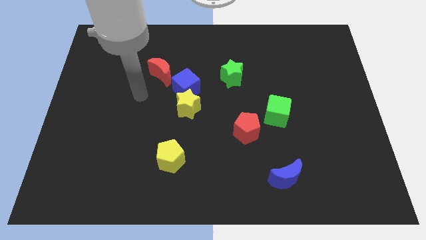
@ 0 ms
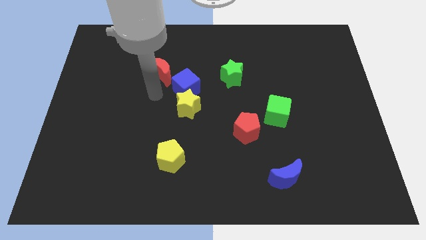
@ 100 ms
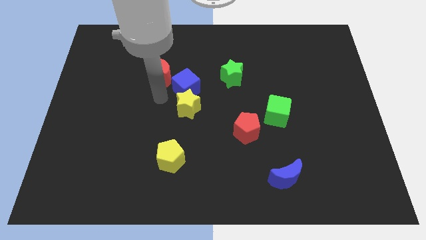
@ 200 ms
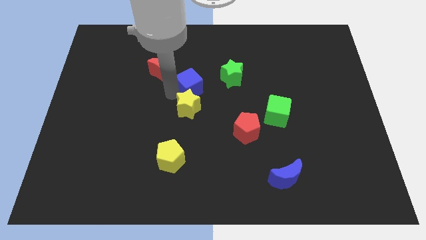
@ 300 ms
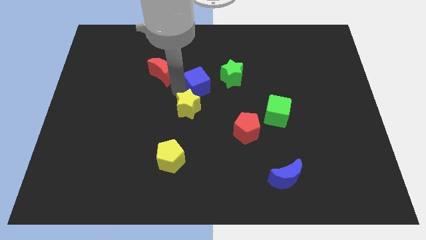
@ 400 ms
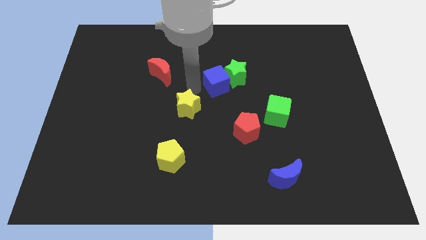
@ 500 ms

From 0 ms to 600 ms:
pull the yellow star apart from the blue cube

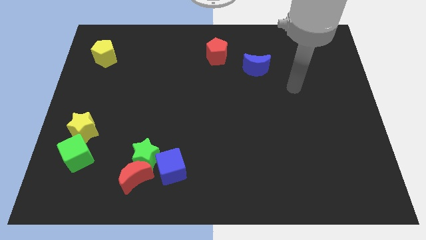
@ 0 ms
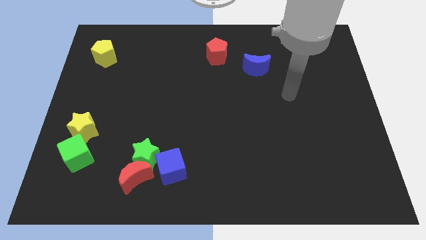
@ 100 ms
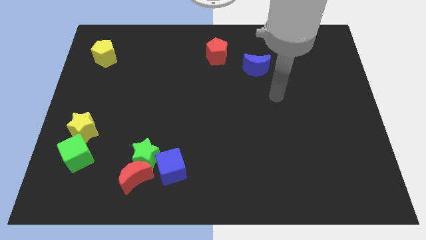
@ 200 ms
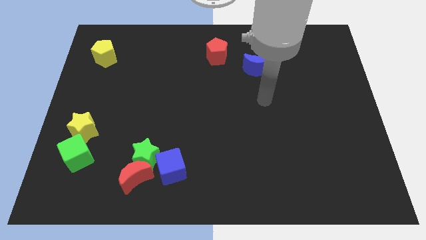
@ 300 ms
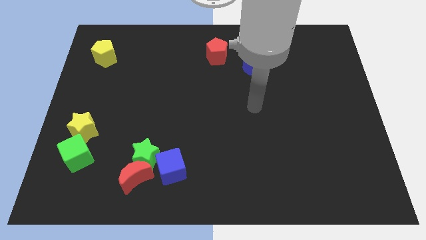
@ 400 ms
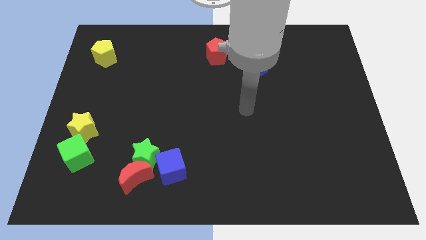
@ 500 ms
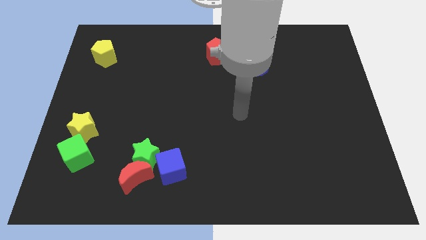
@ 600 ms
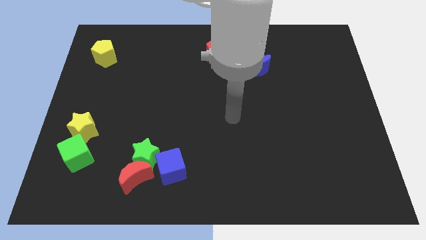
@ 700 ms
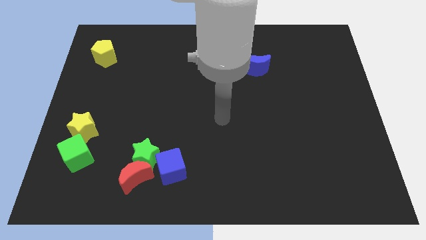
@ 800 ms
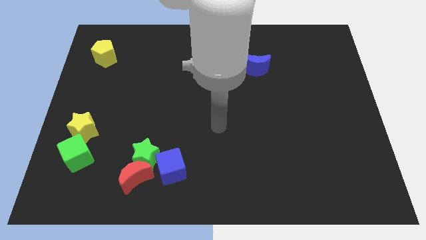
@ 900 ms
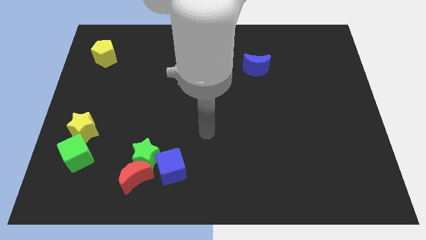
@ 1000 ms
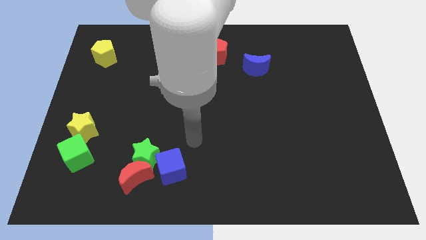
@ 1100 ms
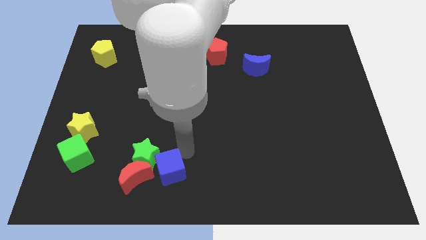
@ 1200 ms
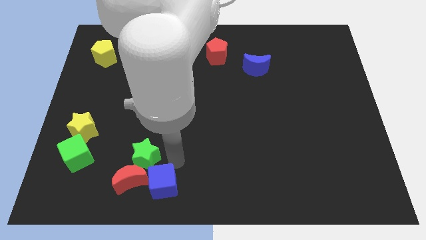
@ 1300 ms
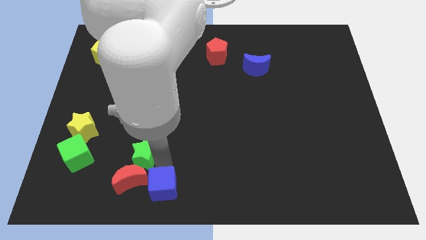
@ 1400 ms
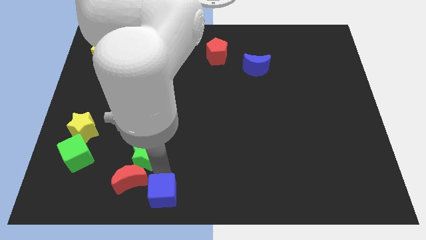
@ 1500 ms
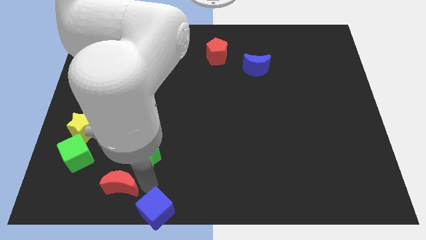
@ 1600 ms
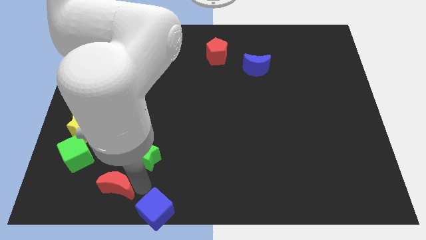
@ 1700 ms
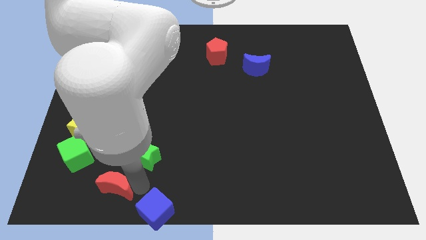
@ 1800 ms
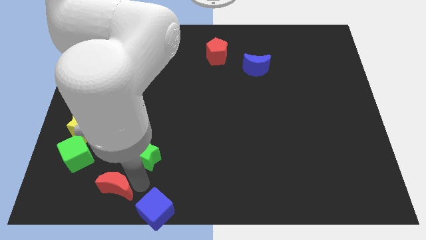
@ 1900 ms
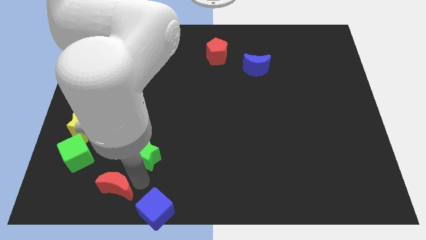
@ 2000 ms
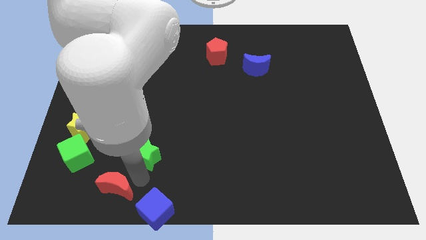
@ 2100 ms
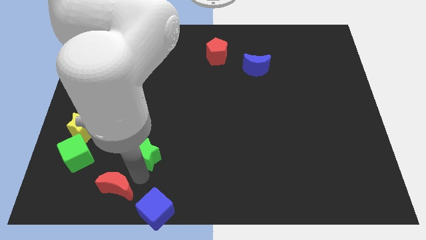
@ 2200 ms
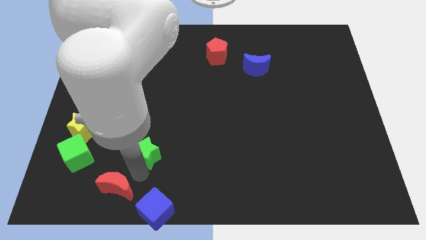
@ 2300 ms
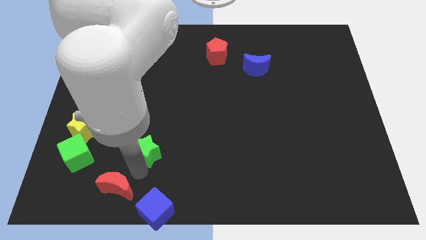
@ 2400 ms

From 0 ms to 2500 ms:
move the green star away from the red moon and blue cube

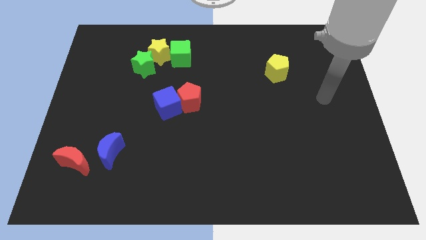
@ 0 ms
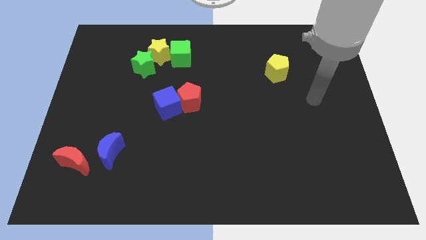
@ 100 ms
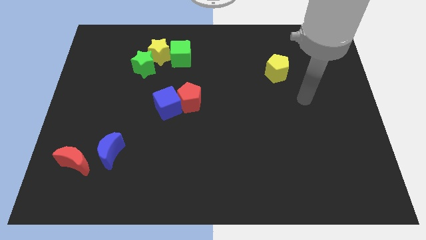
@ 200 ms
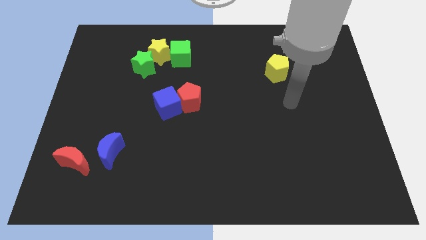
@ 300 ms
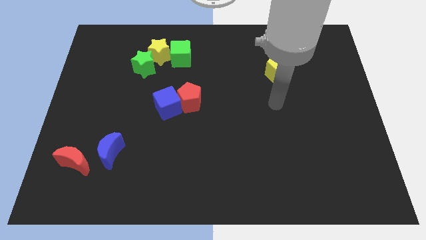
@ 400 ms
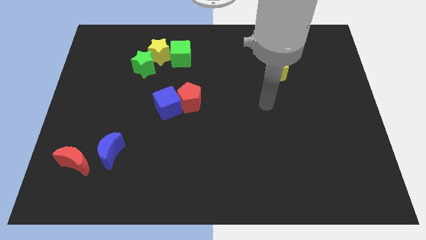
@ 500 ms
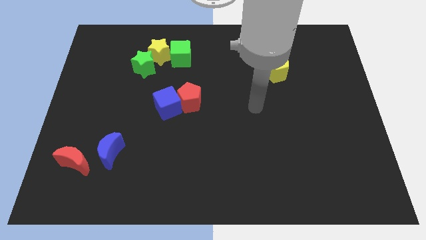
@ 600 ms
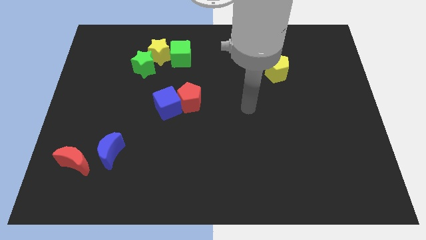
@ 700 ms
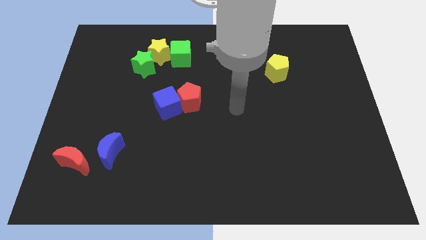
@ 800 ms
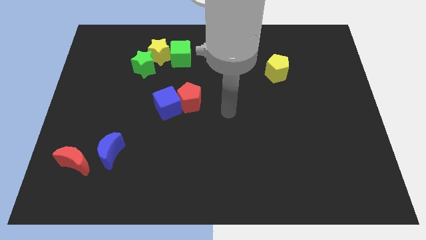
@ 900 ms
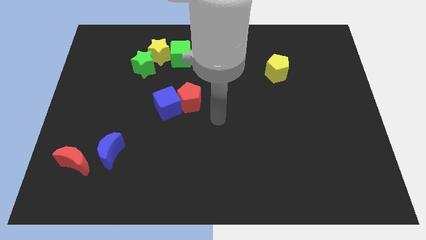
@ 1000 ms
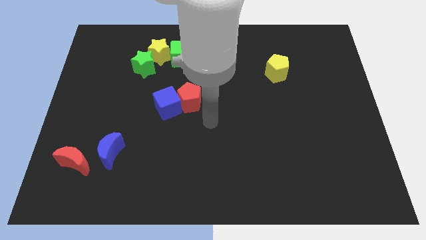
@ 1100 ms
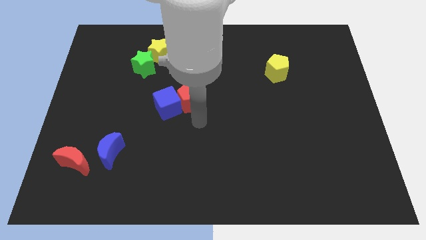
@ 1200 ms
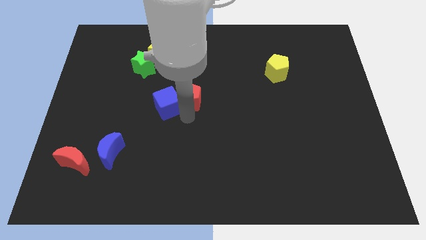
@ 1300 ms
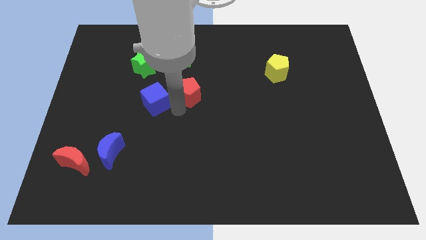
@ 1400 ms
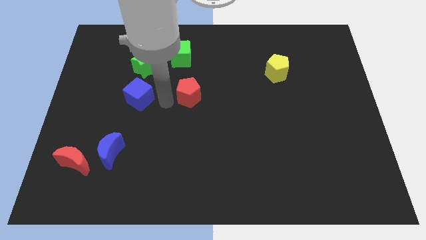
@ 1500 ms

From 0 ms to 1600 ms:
separate the red pentagon from the blue cube

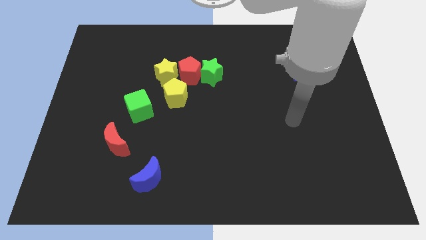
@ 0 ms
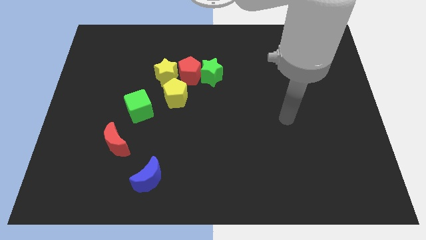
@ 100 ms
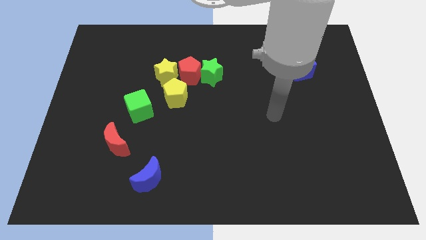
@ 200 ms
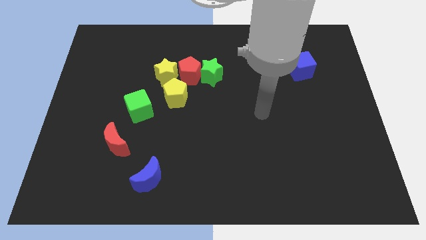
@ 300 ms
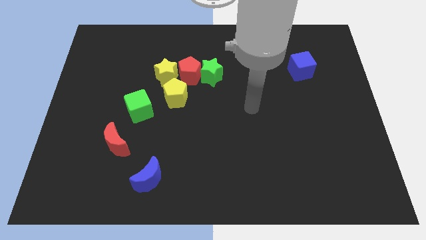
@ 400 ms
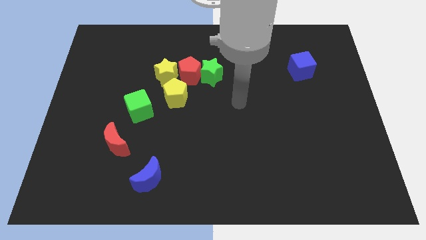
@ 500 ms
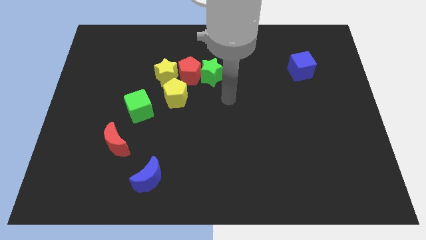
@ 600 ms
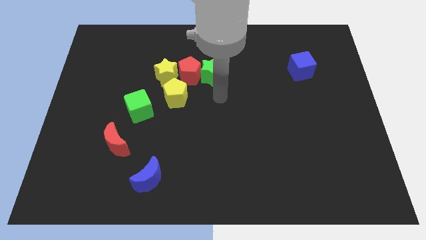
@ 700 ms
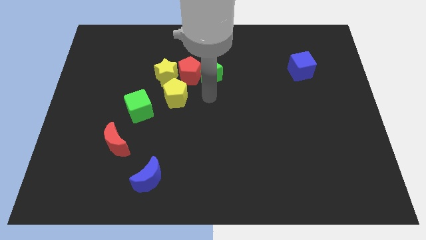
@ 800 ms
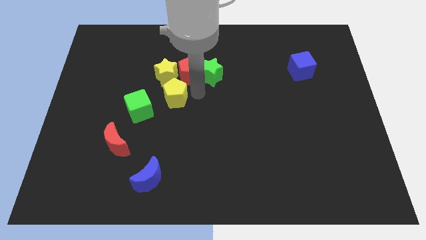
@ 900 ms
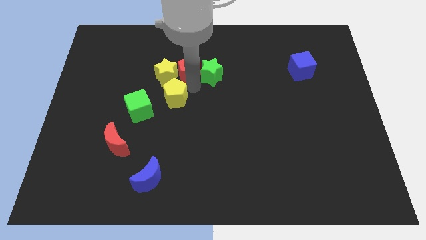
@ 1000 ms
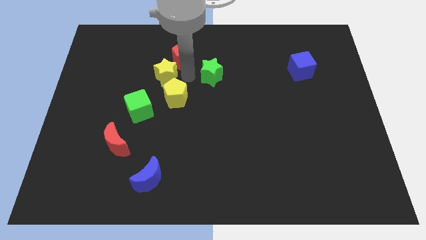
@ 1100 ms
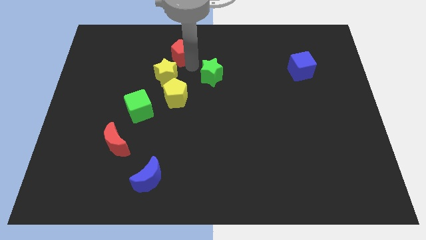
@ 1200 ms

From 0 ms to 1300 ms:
separate the green star from the red pentagon

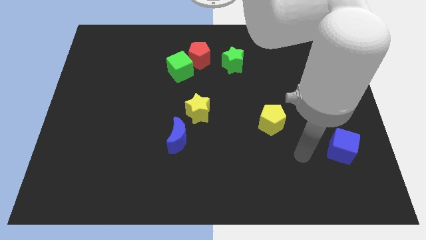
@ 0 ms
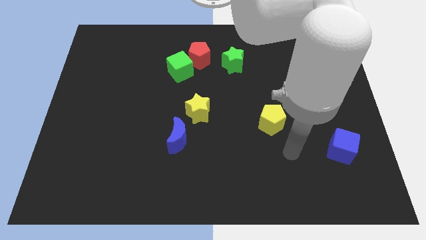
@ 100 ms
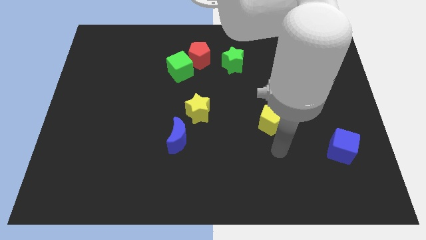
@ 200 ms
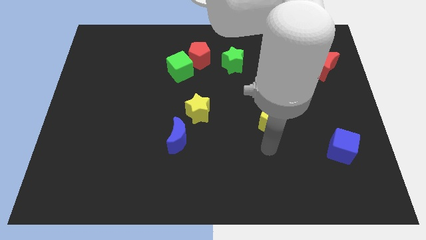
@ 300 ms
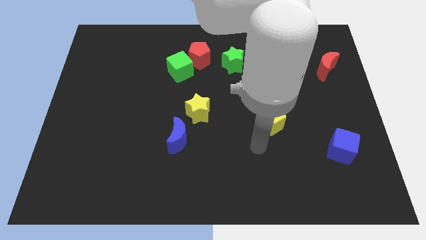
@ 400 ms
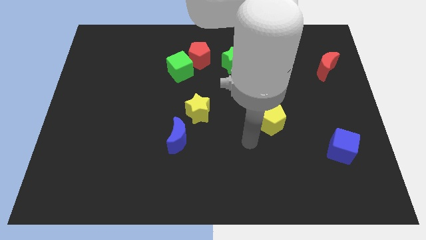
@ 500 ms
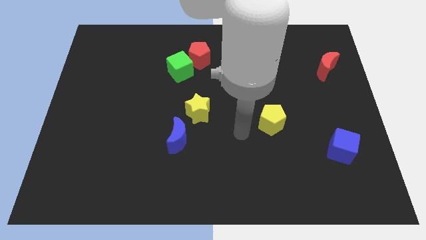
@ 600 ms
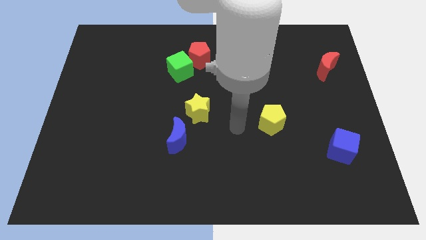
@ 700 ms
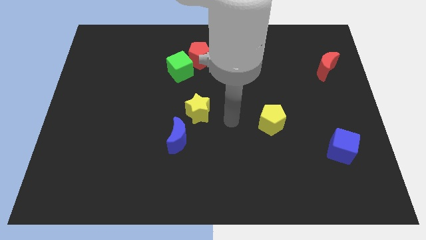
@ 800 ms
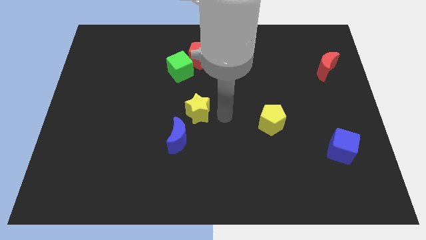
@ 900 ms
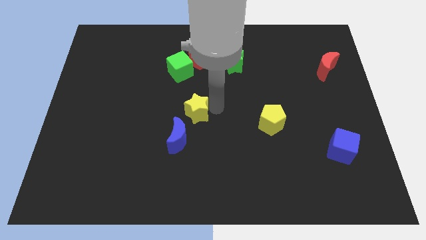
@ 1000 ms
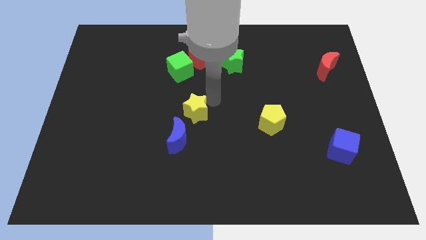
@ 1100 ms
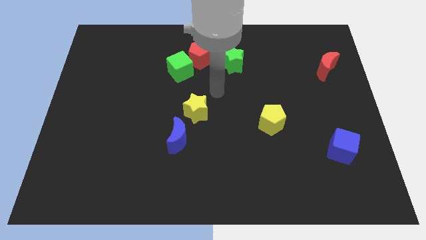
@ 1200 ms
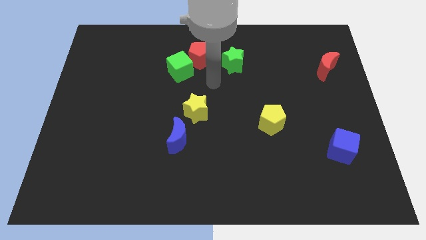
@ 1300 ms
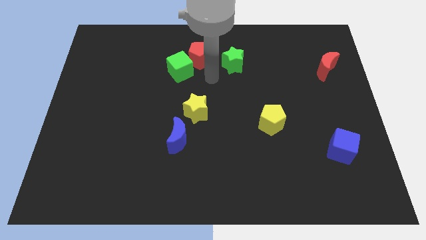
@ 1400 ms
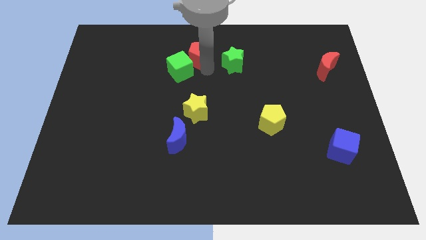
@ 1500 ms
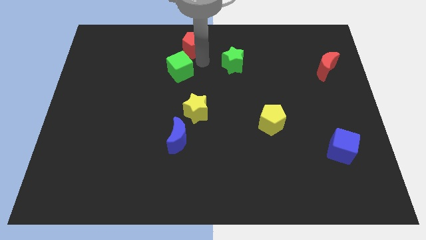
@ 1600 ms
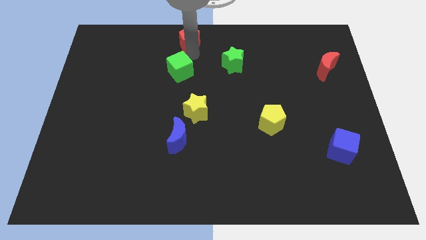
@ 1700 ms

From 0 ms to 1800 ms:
separate the green cube from the red pentagon

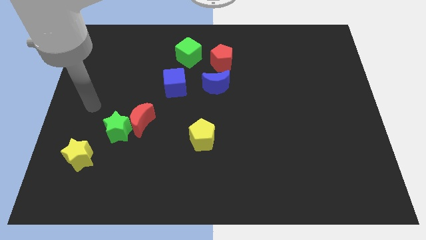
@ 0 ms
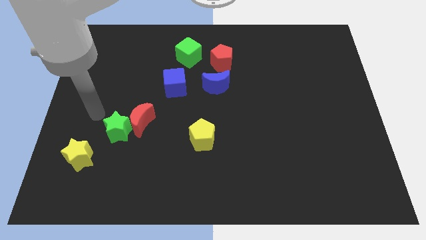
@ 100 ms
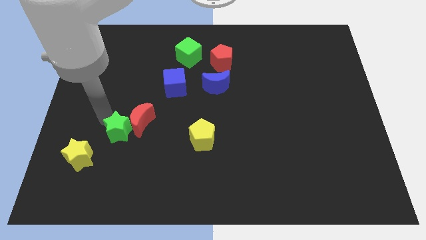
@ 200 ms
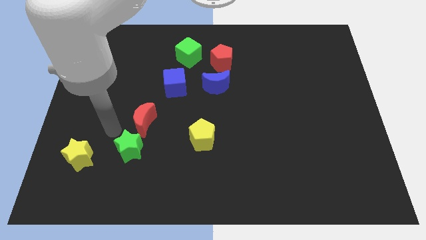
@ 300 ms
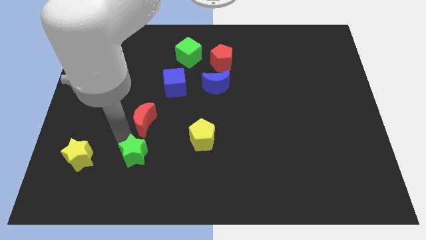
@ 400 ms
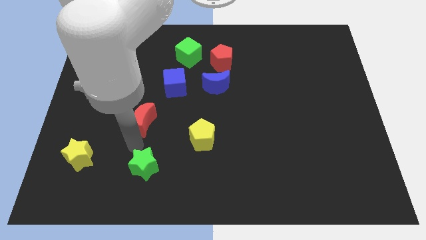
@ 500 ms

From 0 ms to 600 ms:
move the red moon away from the green star

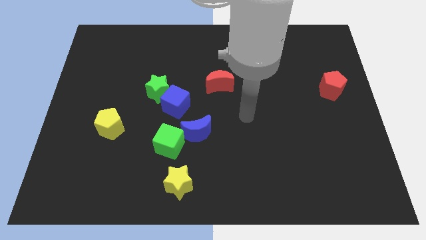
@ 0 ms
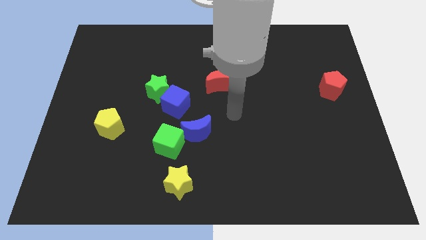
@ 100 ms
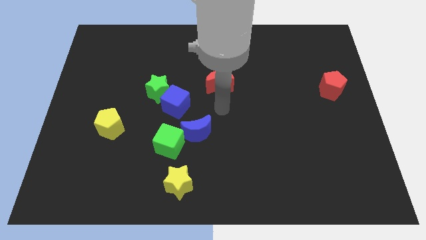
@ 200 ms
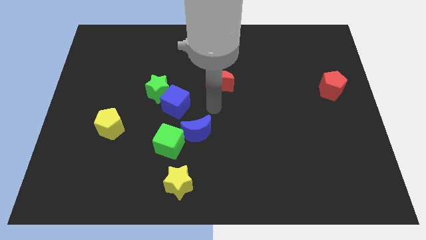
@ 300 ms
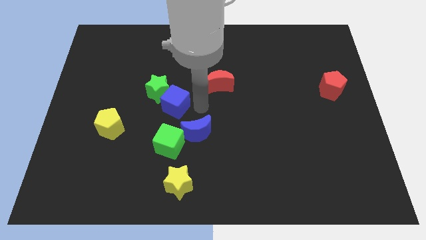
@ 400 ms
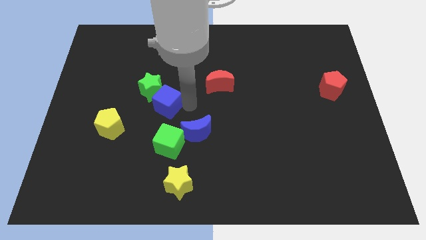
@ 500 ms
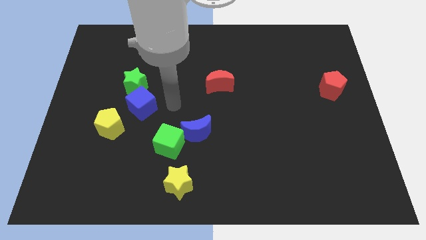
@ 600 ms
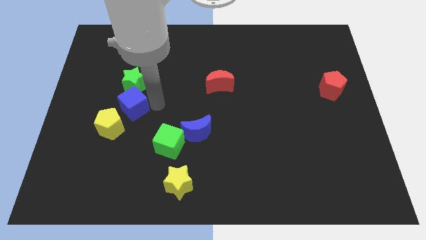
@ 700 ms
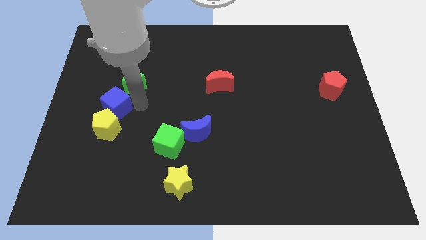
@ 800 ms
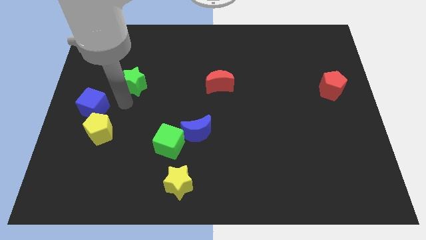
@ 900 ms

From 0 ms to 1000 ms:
move the green star away from the blue cube
